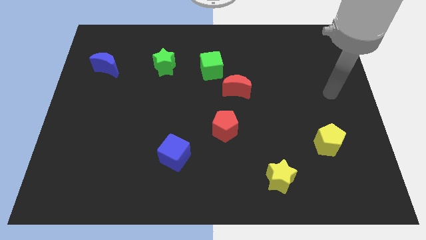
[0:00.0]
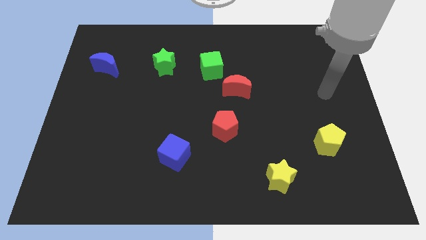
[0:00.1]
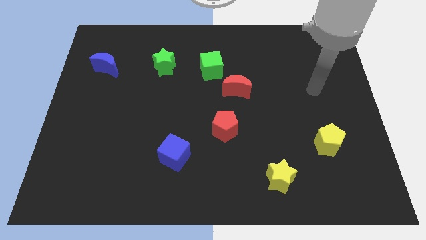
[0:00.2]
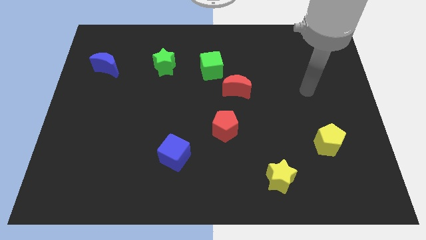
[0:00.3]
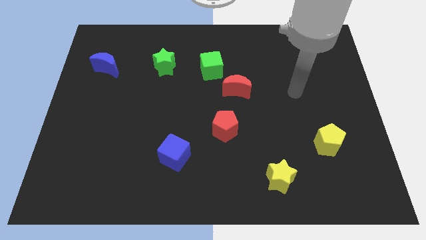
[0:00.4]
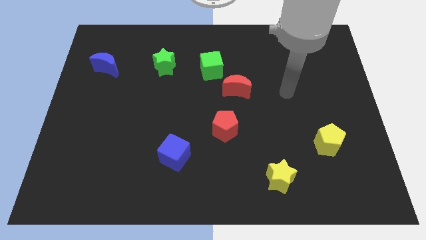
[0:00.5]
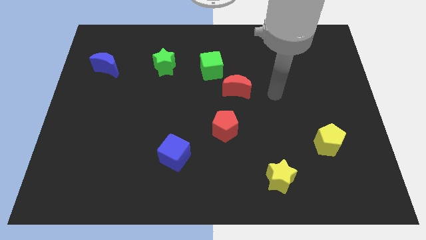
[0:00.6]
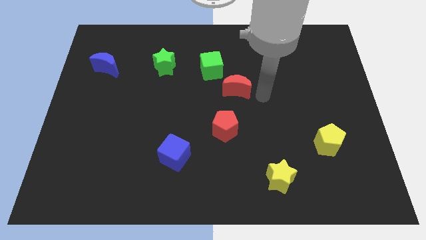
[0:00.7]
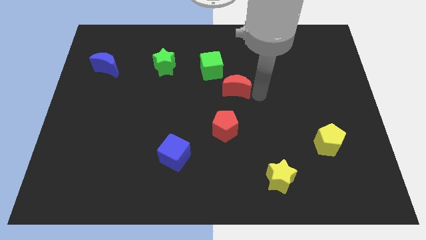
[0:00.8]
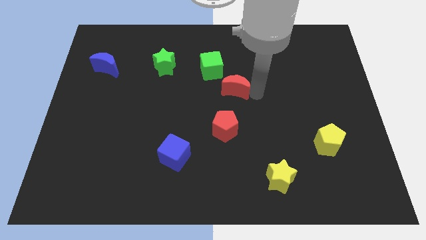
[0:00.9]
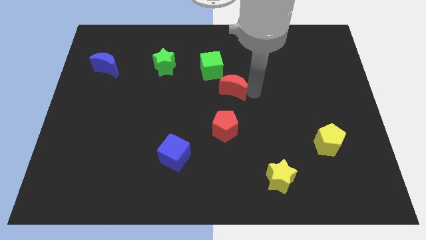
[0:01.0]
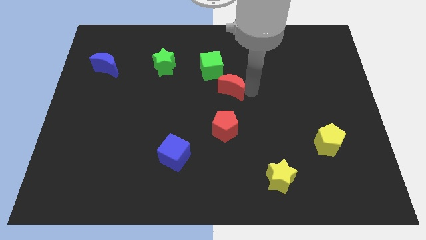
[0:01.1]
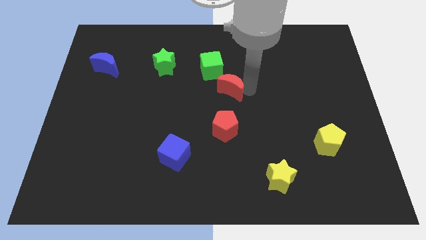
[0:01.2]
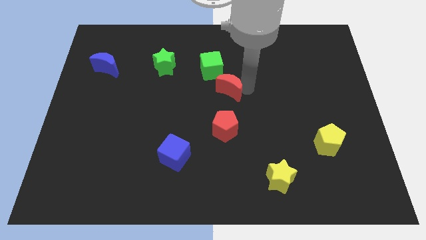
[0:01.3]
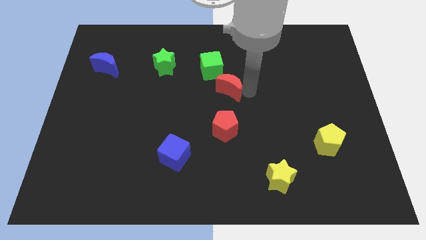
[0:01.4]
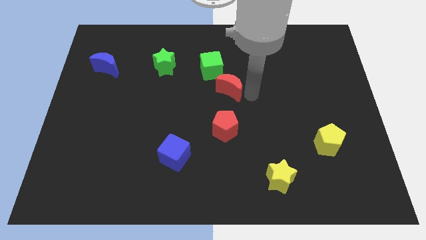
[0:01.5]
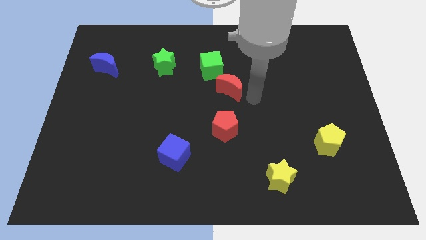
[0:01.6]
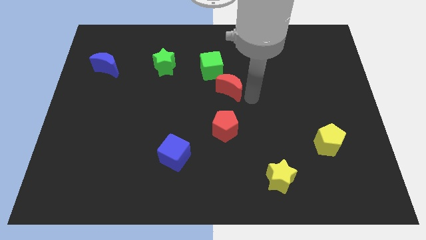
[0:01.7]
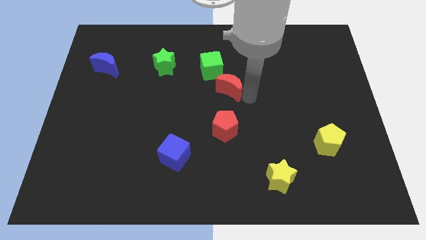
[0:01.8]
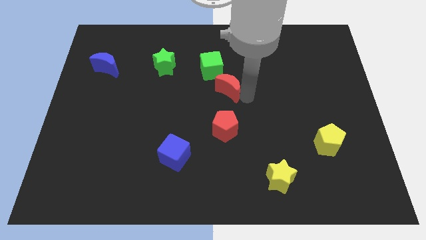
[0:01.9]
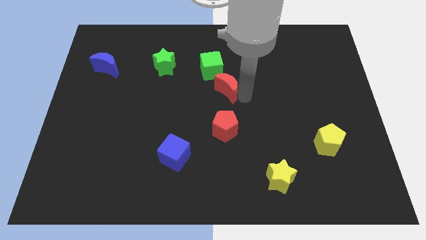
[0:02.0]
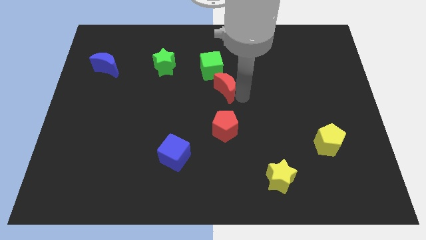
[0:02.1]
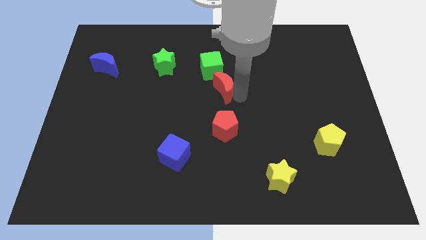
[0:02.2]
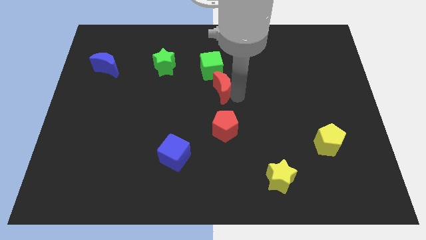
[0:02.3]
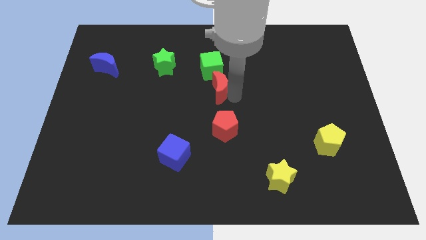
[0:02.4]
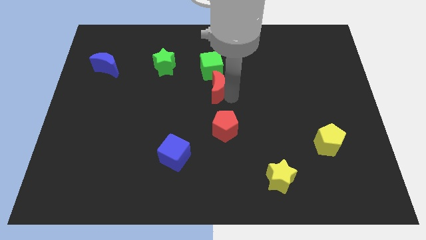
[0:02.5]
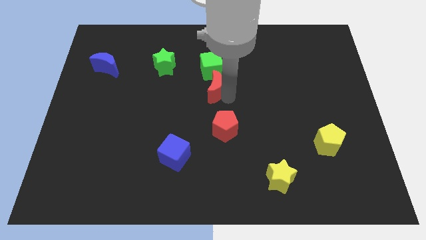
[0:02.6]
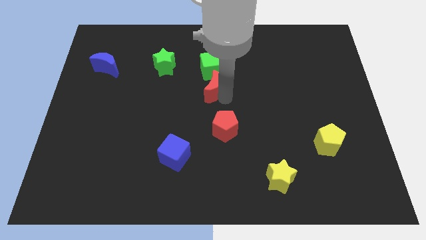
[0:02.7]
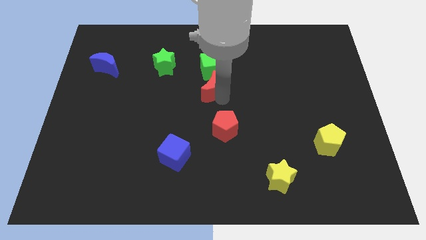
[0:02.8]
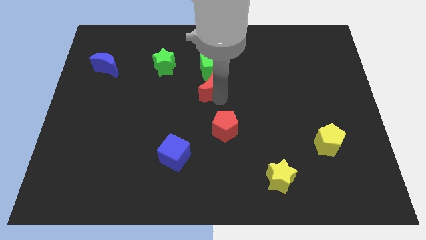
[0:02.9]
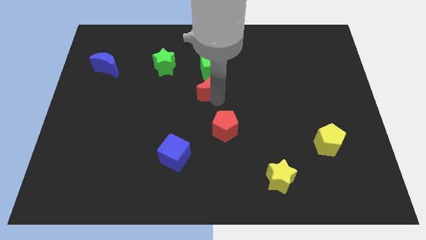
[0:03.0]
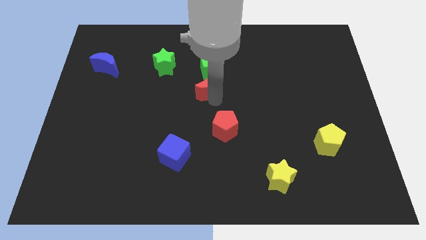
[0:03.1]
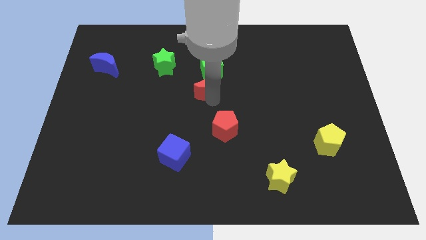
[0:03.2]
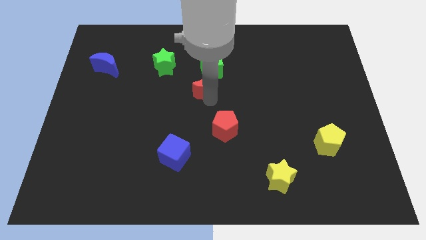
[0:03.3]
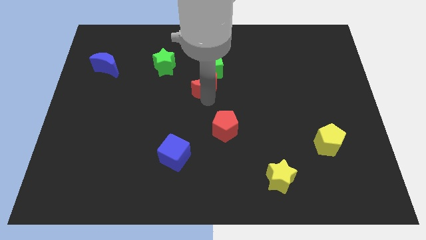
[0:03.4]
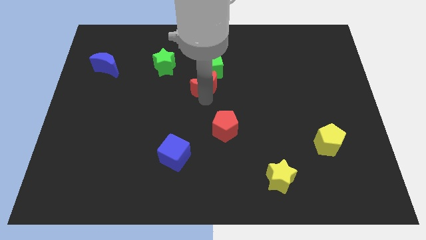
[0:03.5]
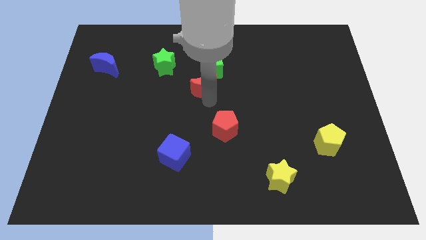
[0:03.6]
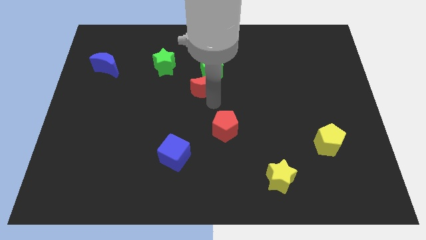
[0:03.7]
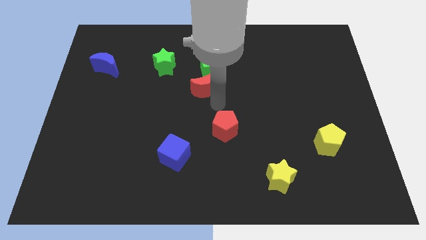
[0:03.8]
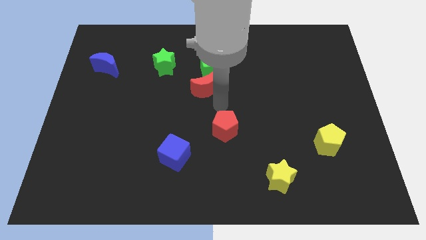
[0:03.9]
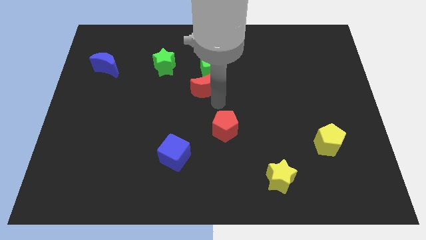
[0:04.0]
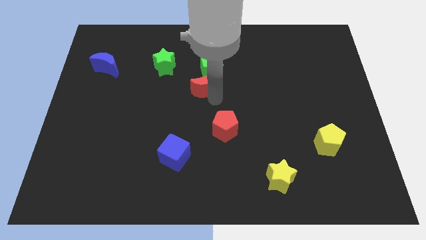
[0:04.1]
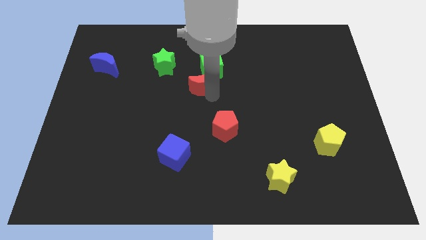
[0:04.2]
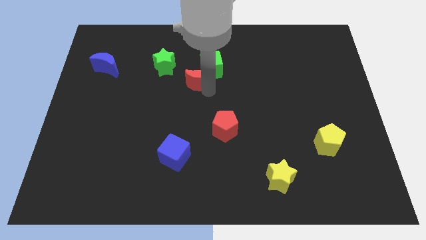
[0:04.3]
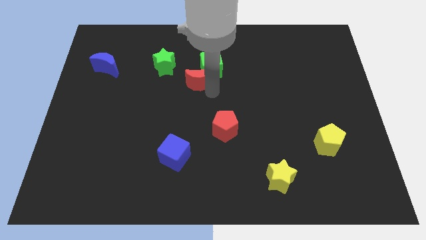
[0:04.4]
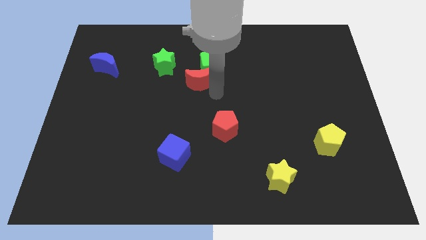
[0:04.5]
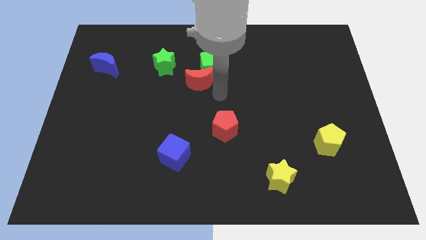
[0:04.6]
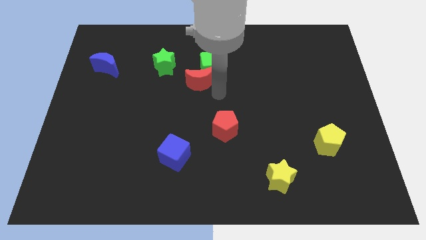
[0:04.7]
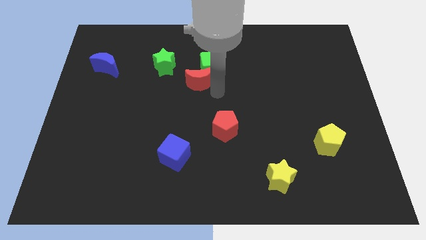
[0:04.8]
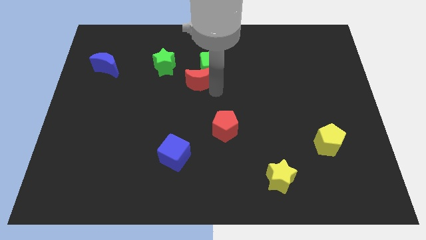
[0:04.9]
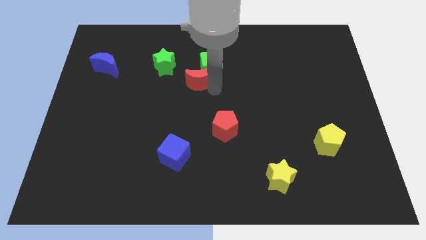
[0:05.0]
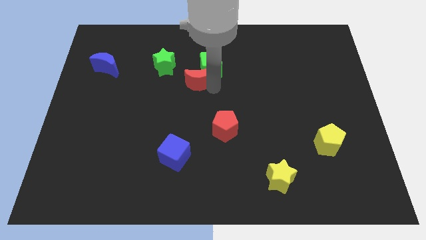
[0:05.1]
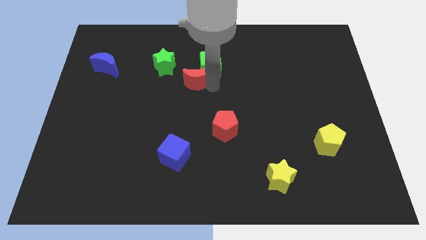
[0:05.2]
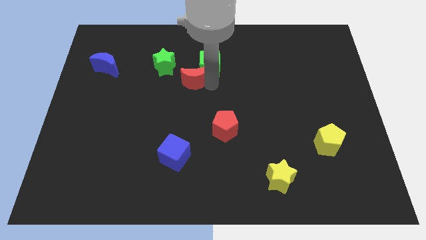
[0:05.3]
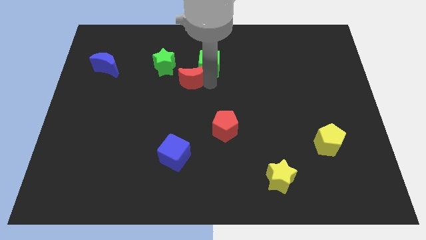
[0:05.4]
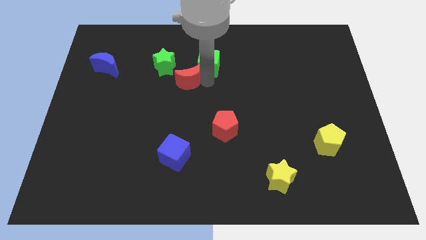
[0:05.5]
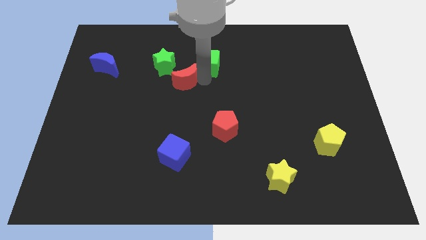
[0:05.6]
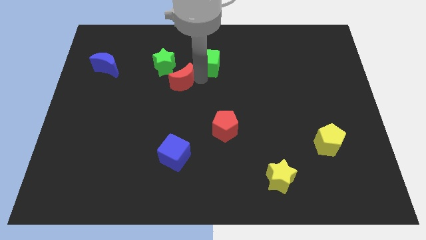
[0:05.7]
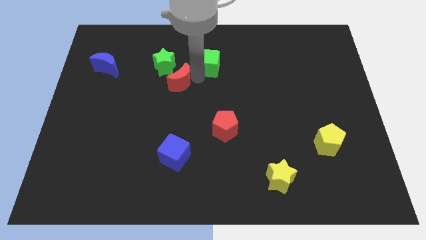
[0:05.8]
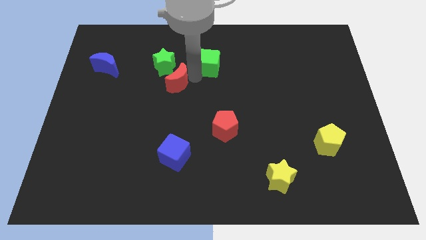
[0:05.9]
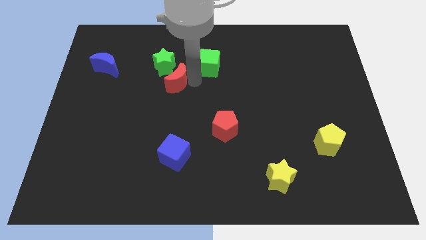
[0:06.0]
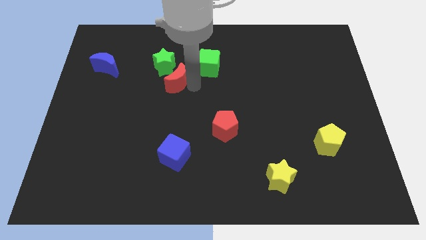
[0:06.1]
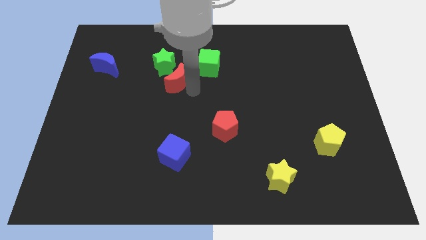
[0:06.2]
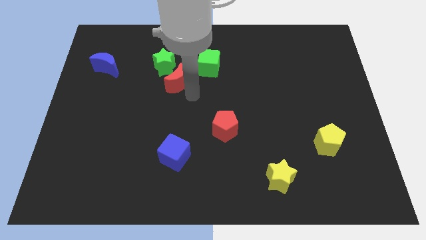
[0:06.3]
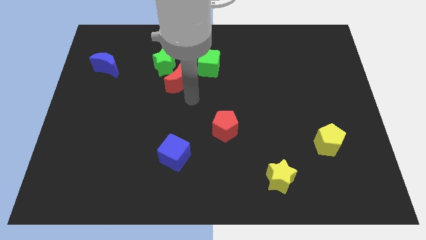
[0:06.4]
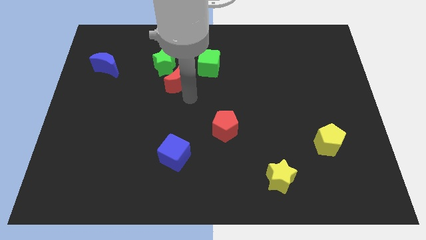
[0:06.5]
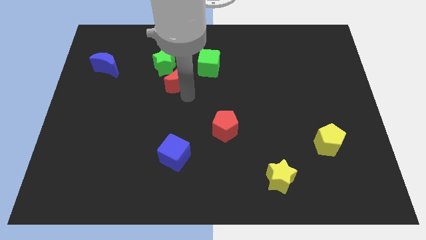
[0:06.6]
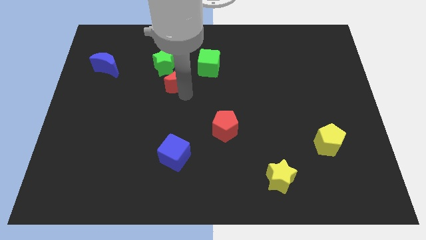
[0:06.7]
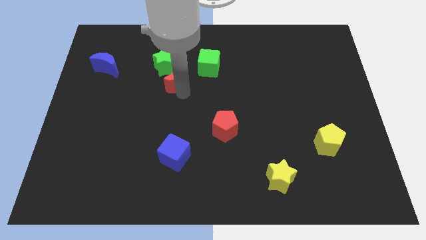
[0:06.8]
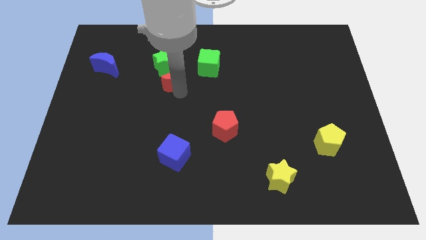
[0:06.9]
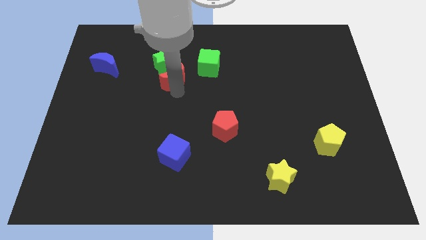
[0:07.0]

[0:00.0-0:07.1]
move the red moon next to the green star

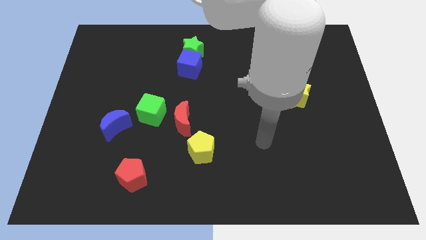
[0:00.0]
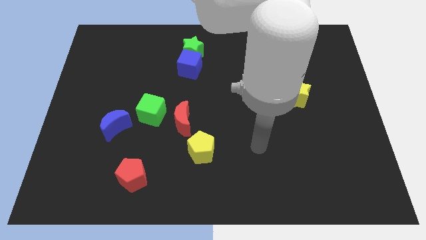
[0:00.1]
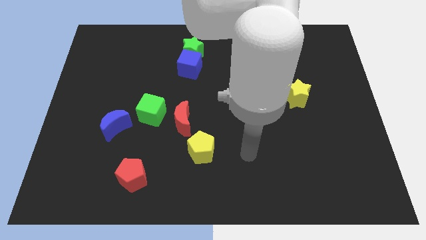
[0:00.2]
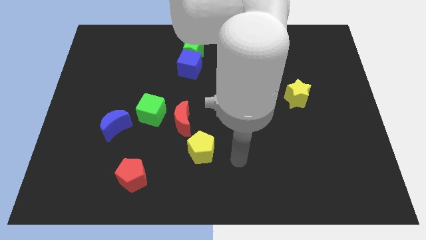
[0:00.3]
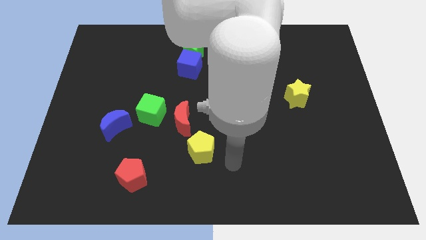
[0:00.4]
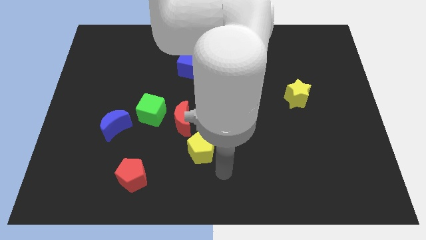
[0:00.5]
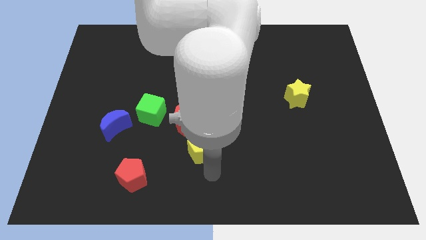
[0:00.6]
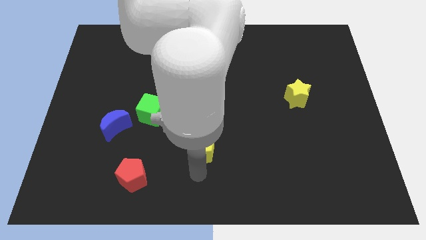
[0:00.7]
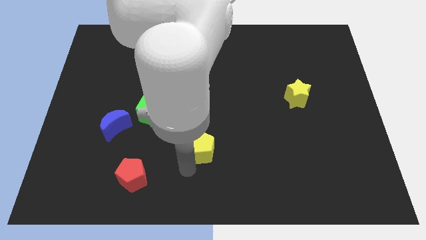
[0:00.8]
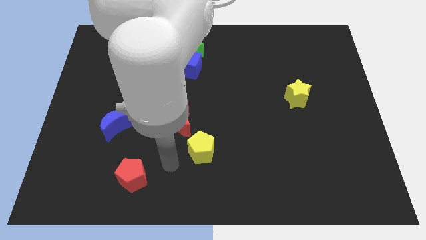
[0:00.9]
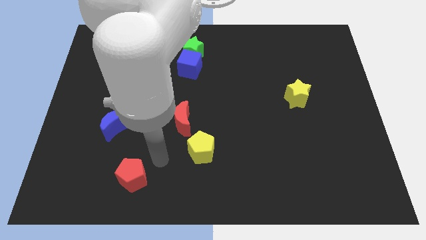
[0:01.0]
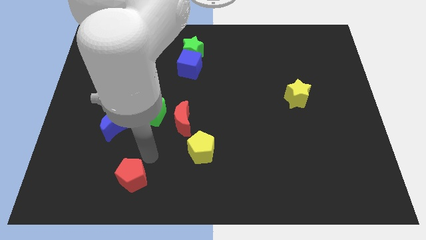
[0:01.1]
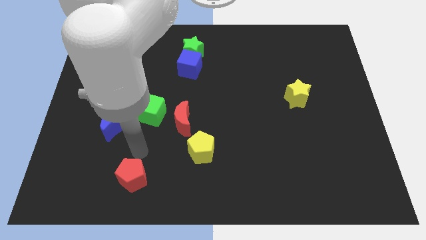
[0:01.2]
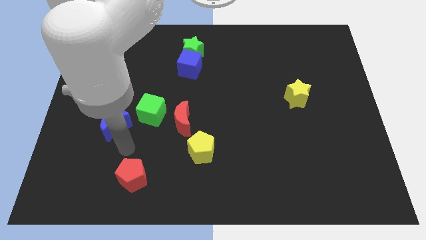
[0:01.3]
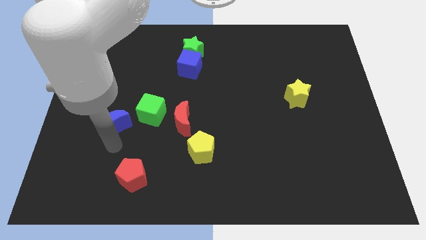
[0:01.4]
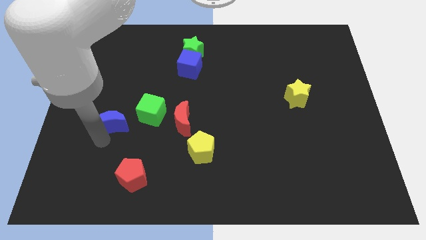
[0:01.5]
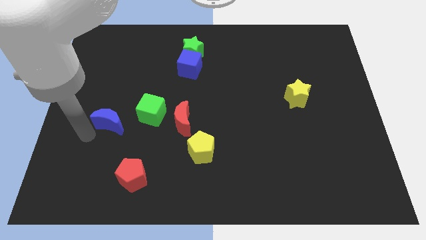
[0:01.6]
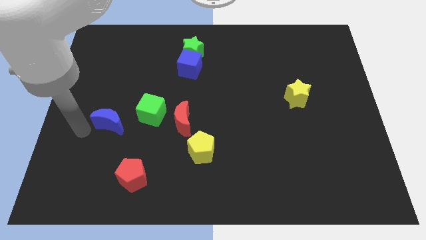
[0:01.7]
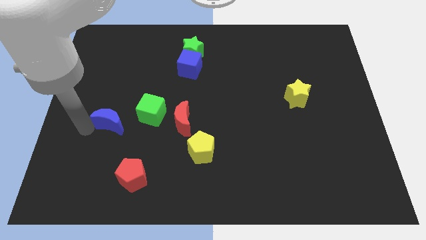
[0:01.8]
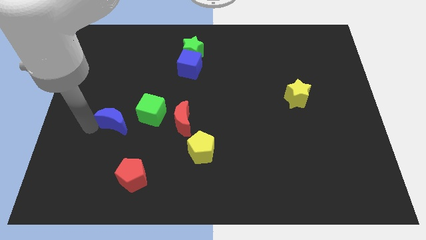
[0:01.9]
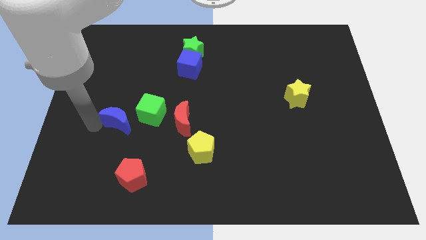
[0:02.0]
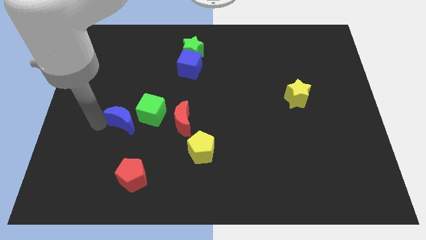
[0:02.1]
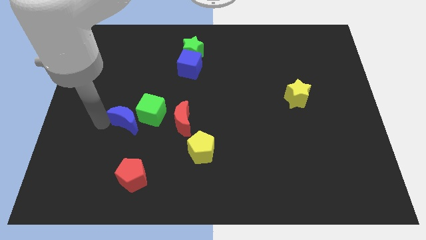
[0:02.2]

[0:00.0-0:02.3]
put the blue moon close to the green cube
